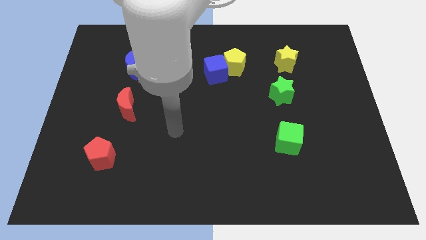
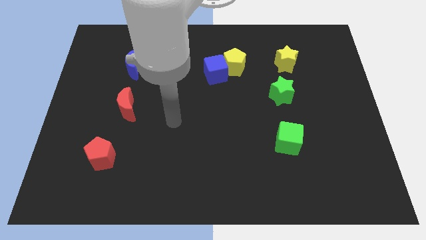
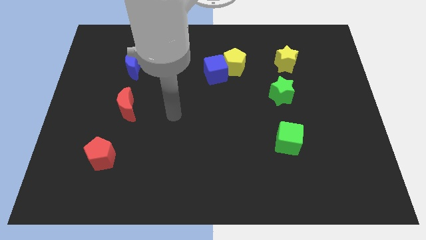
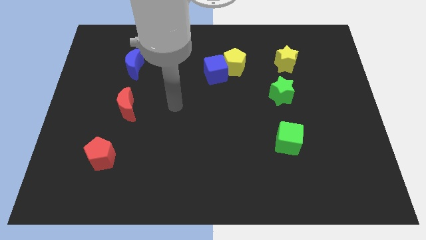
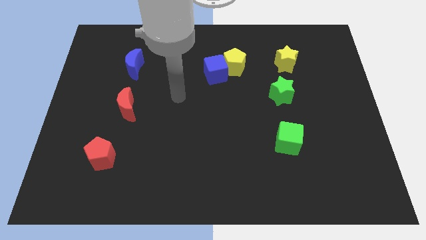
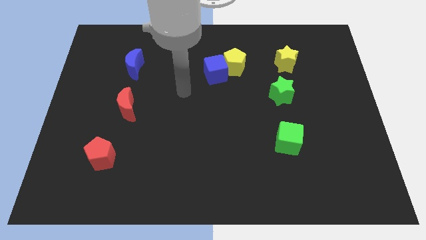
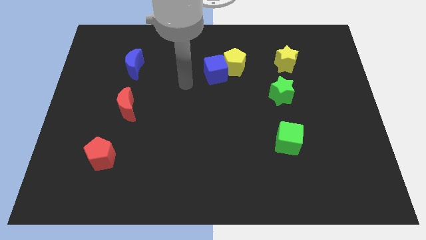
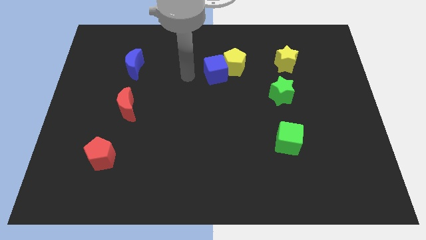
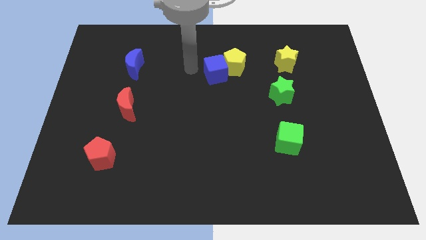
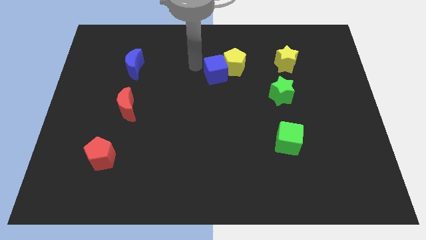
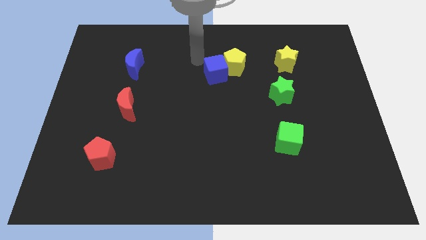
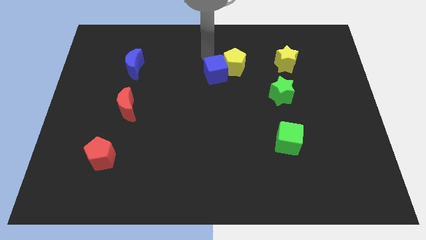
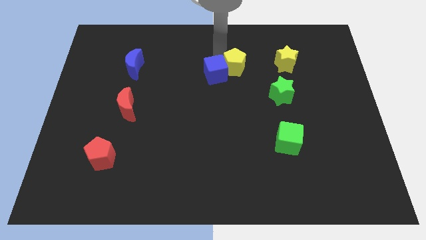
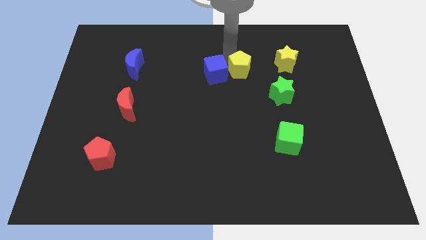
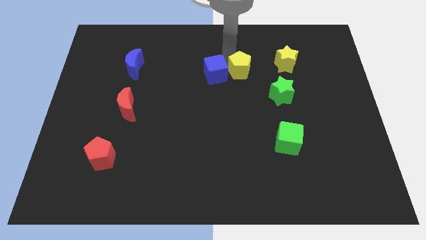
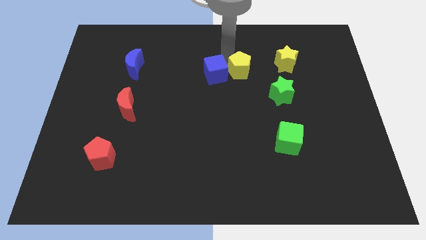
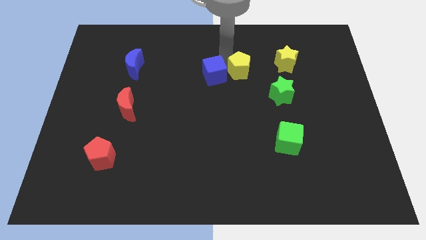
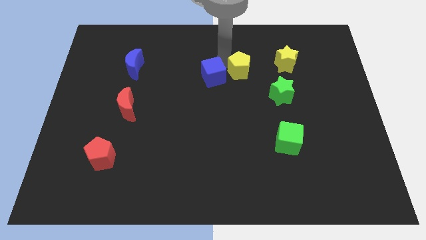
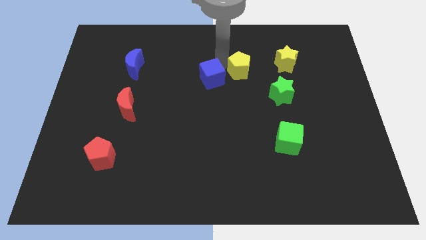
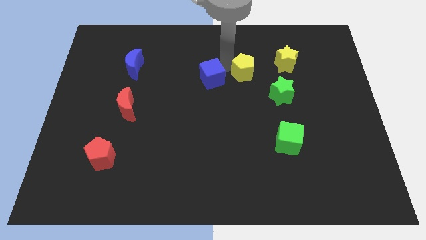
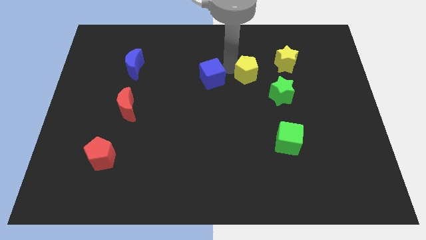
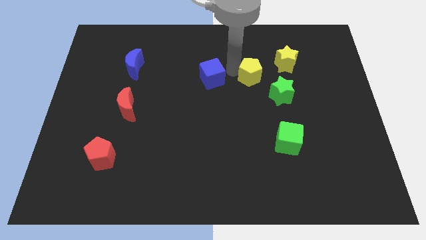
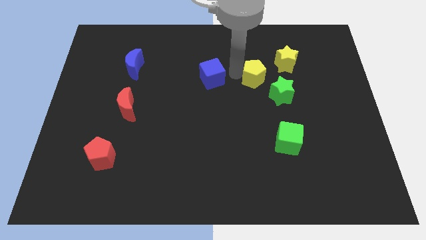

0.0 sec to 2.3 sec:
pull the blue cube apart from the yellow pentagon

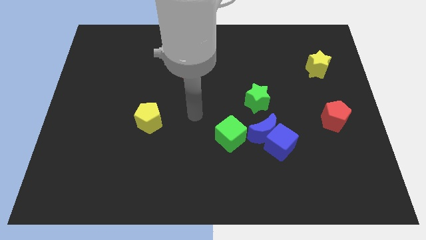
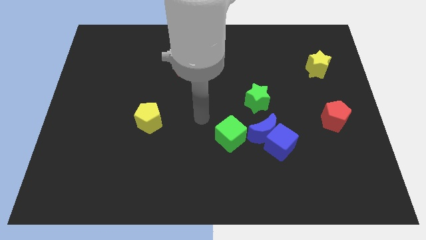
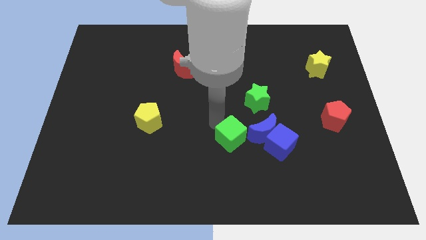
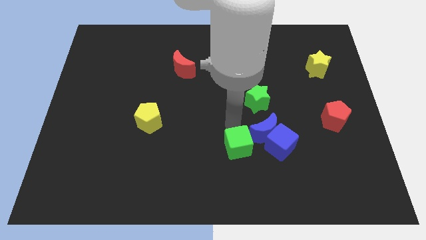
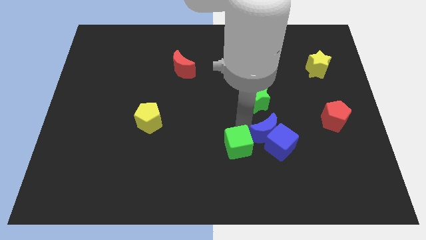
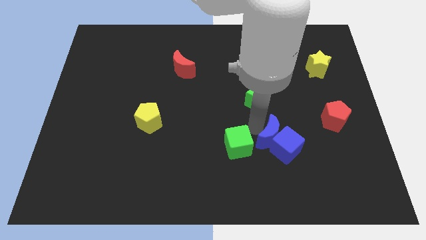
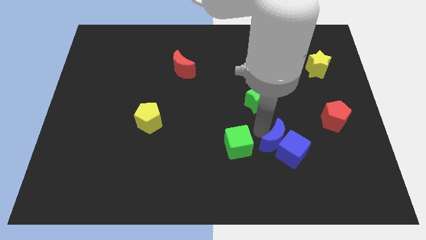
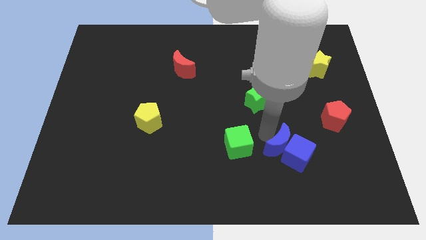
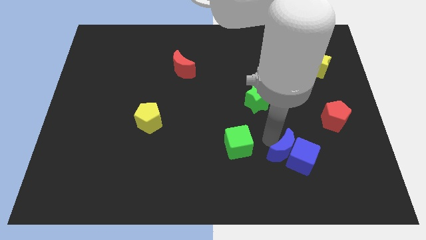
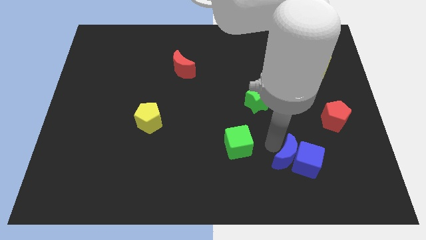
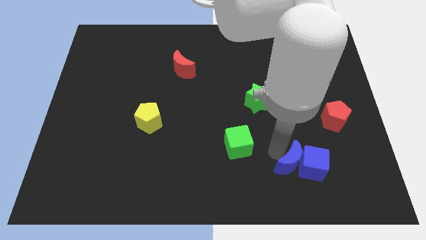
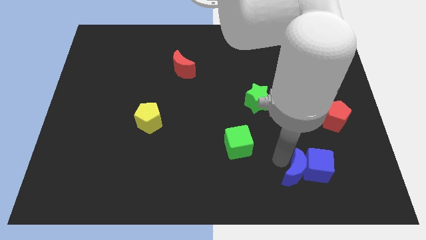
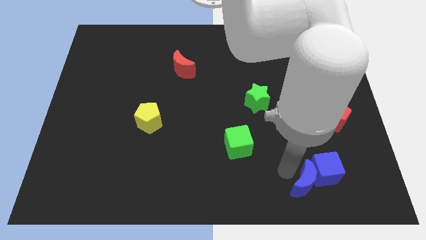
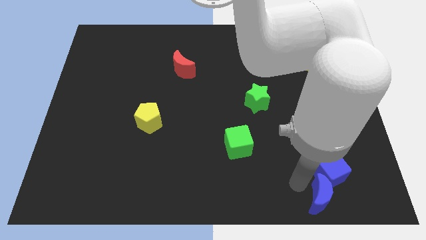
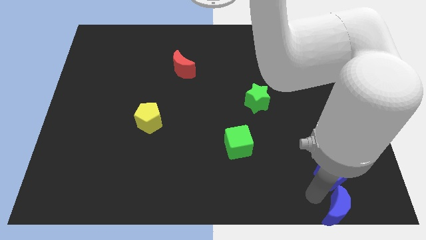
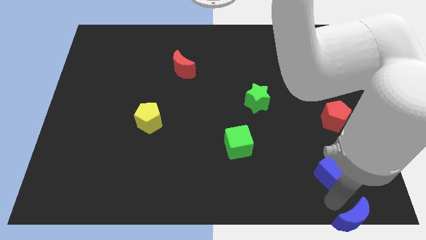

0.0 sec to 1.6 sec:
pull the blue cube apart from the blue moon

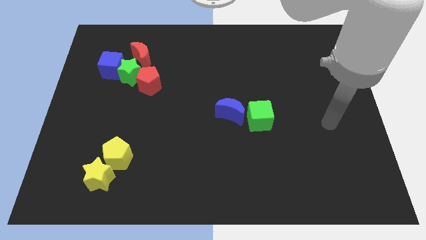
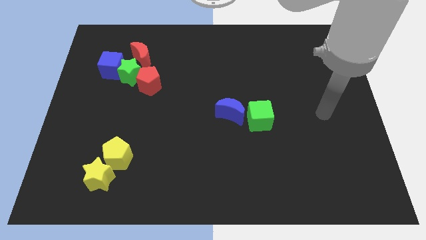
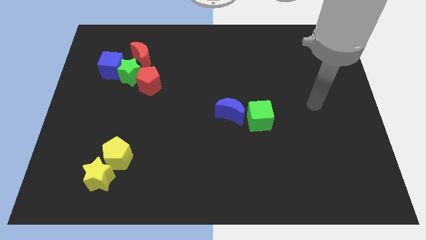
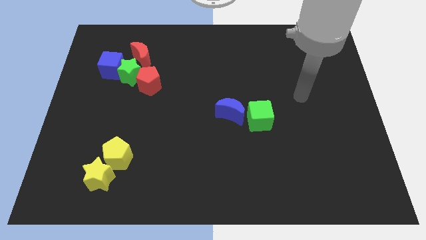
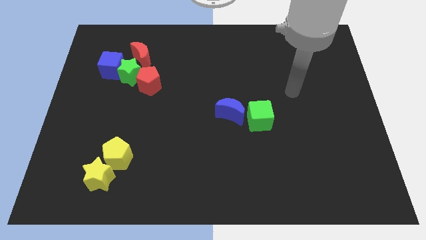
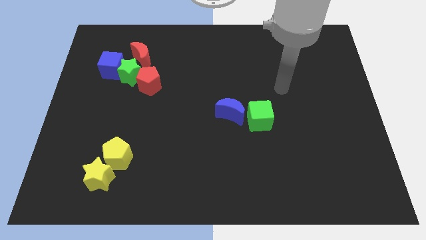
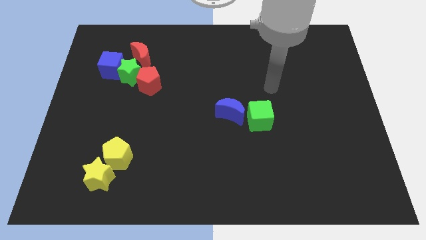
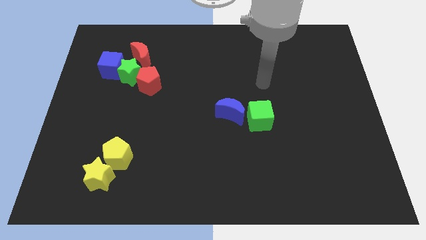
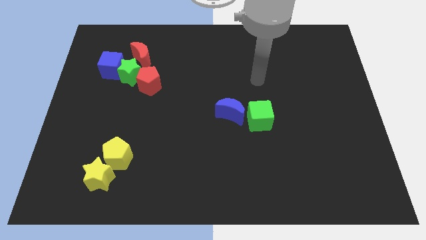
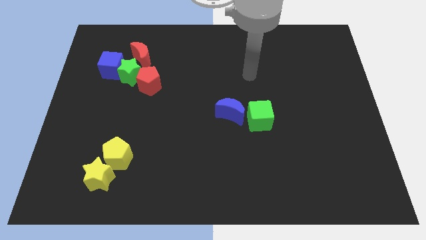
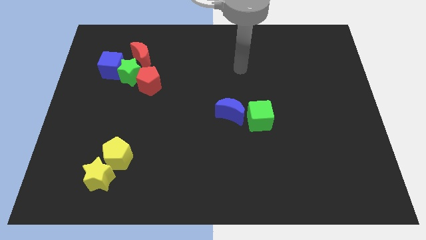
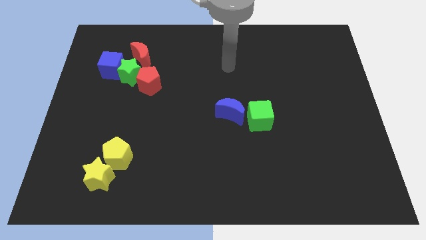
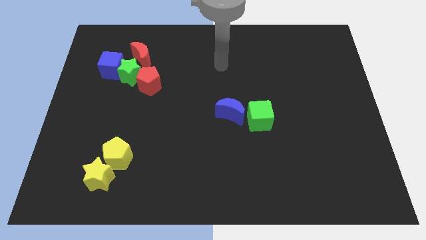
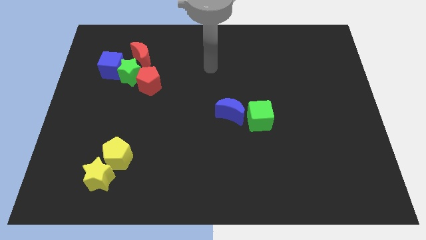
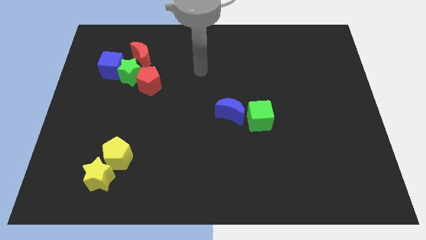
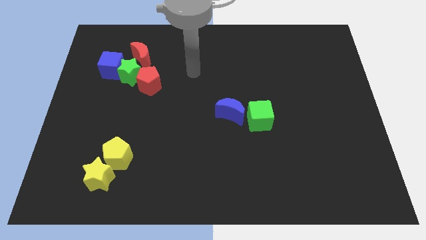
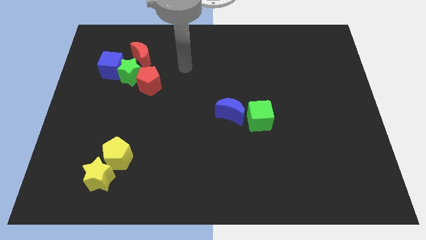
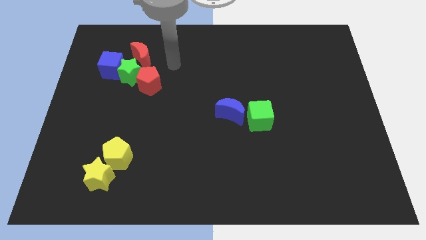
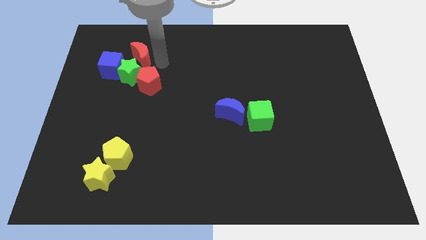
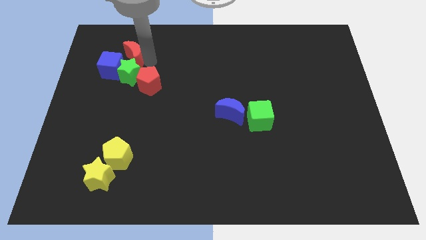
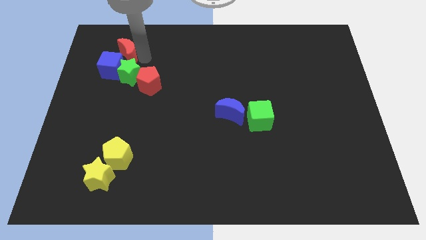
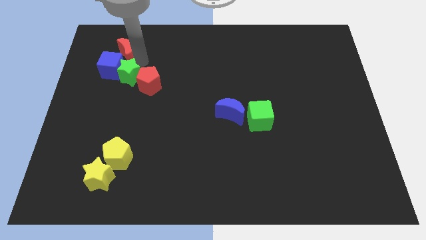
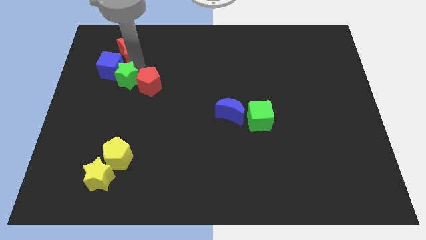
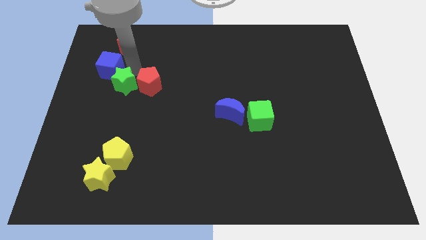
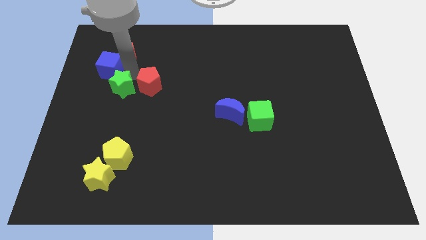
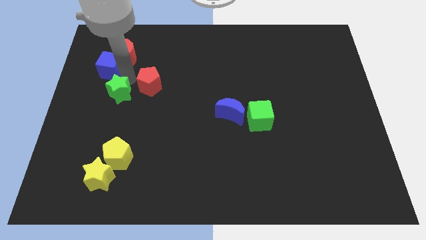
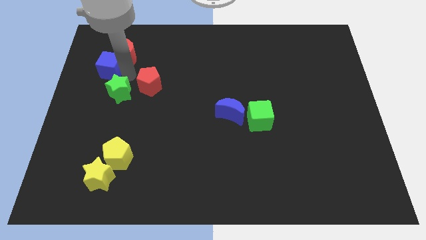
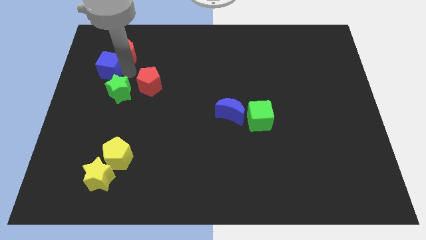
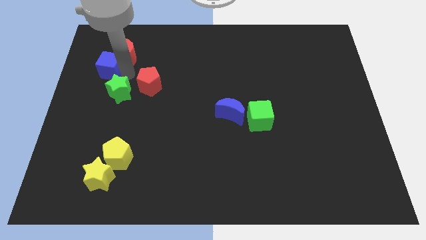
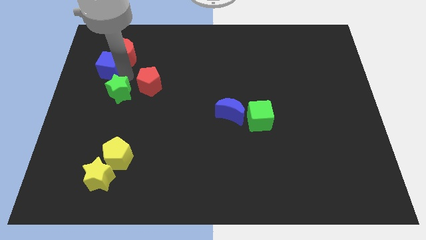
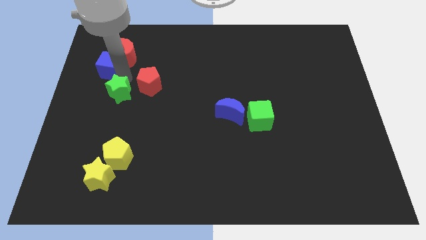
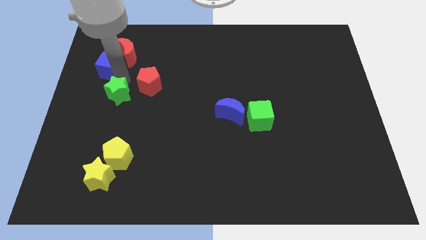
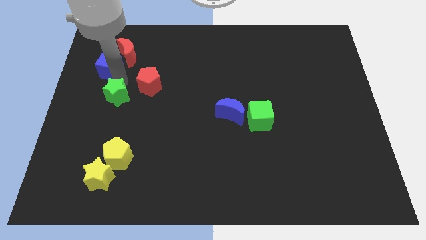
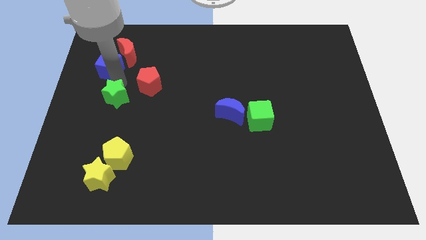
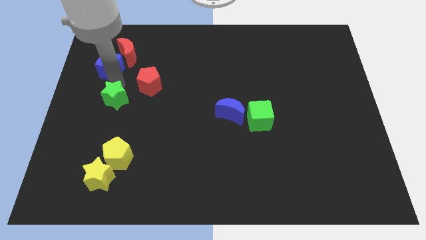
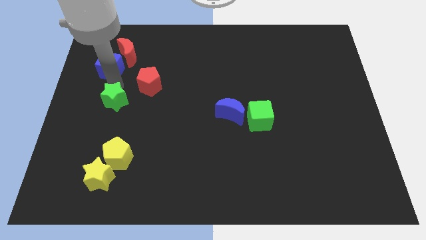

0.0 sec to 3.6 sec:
separate the green star from the blue cube, red pentagon, and red moon

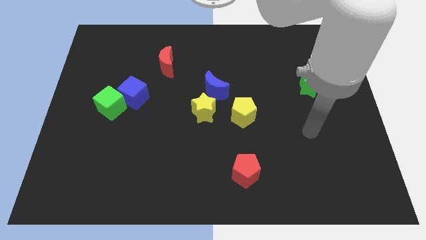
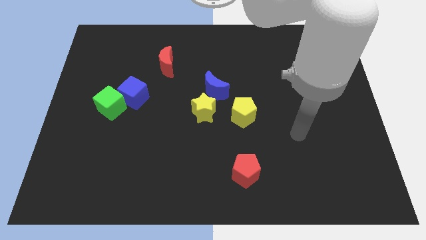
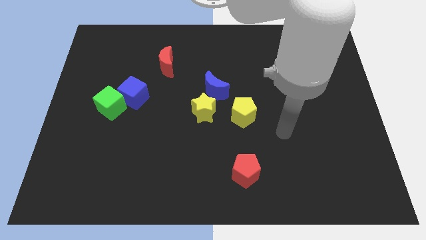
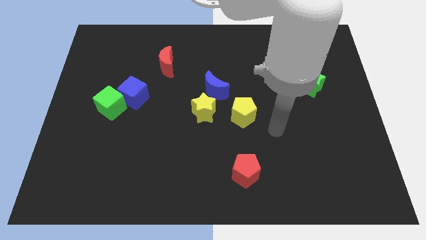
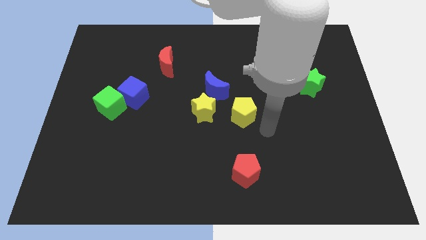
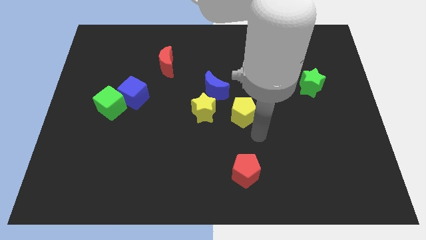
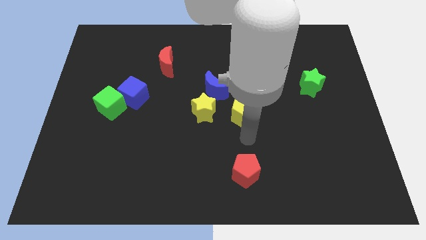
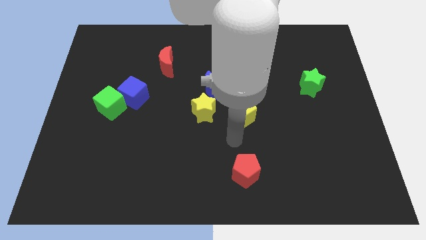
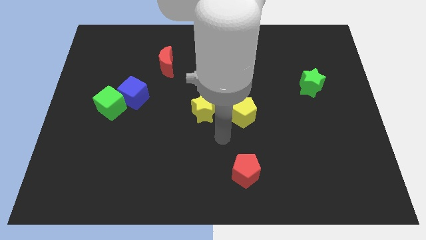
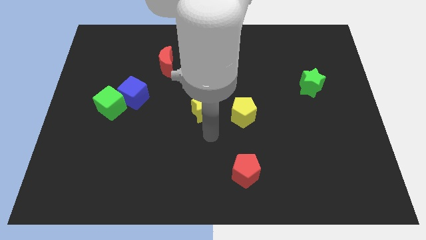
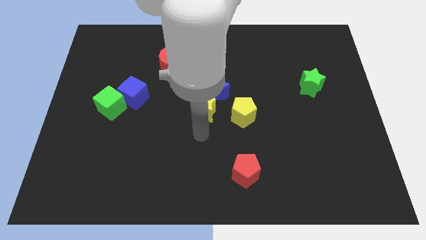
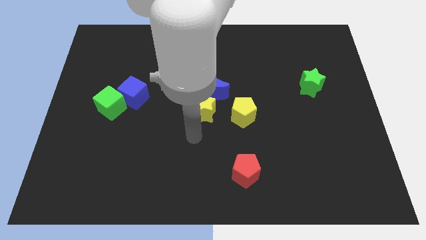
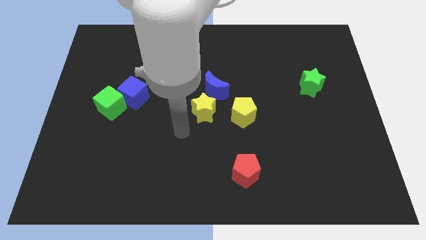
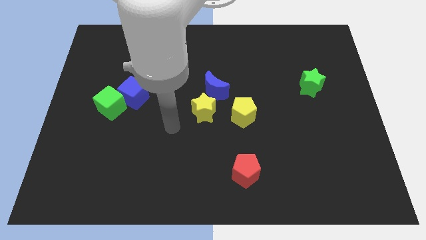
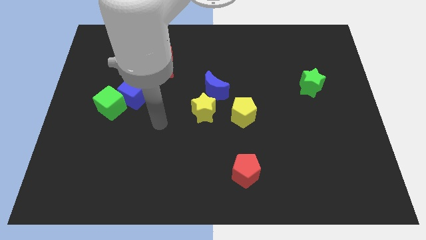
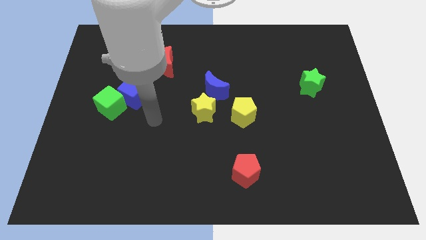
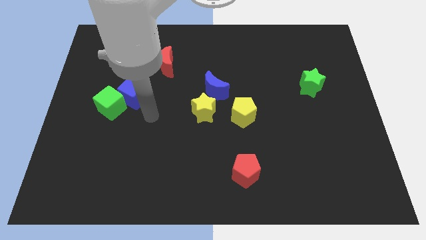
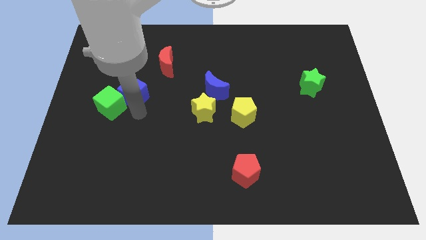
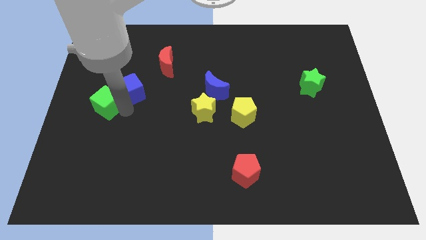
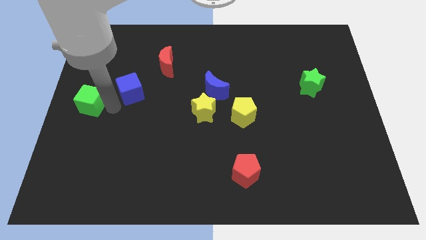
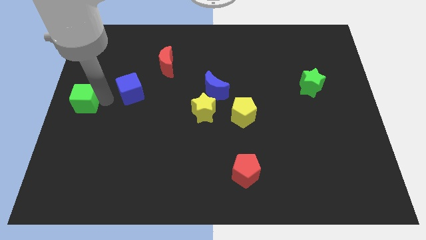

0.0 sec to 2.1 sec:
separate the blue cube from the green cube
